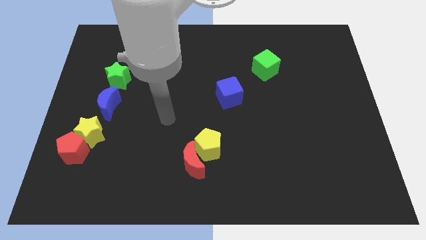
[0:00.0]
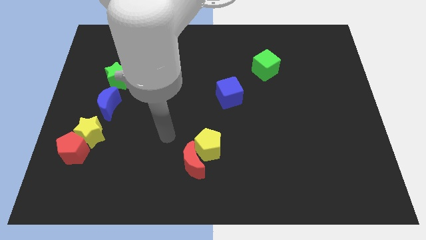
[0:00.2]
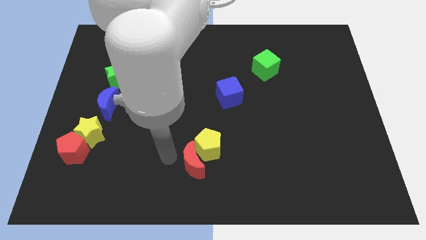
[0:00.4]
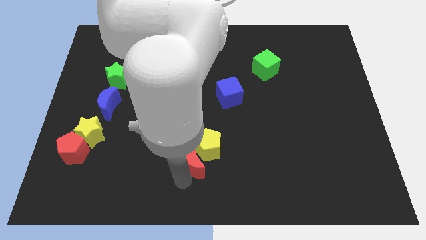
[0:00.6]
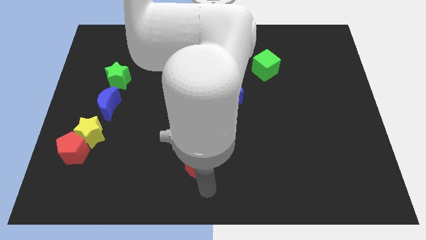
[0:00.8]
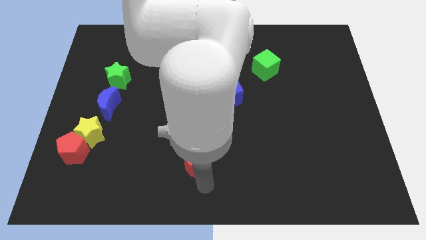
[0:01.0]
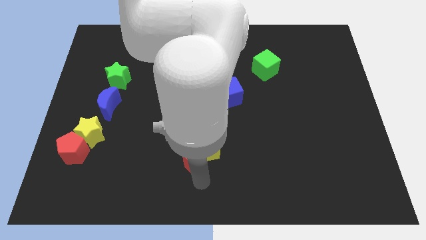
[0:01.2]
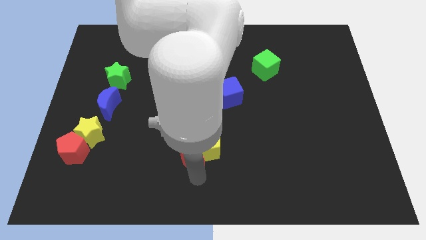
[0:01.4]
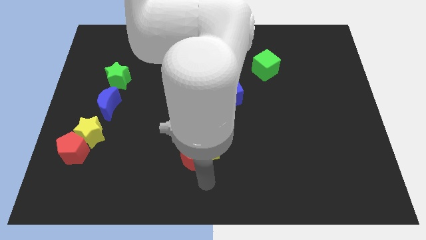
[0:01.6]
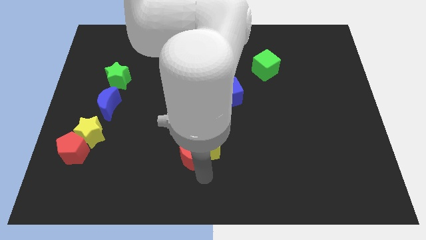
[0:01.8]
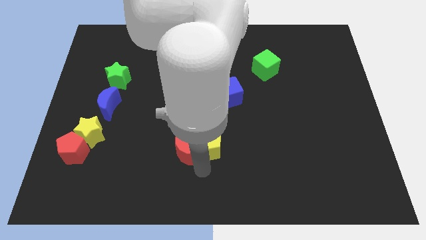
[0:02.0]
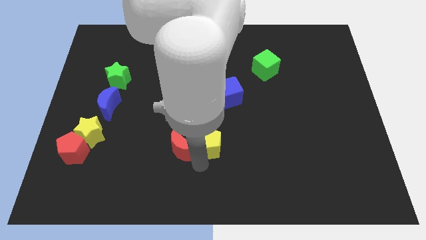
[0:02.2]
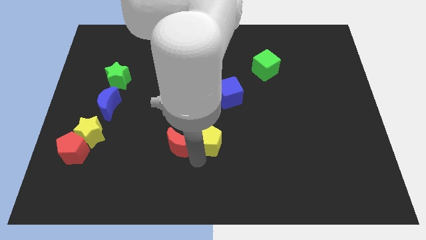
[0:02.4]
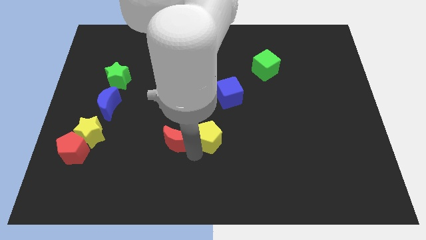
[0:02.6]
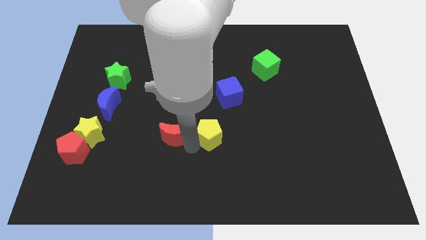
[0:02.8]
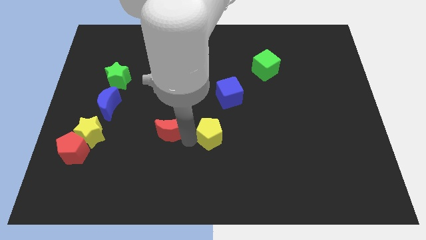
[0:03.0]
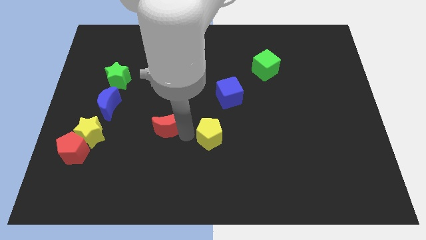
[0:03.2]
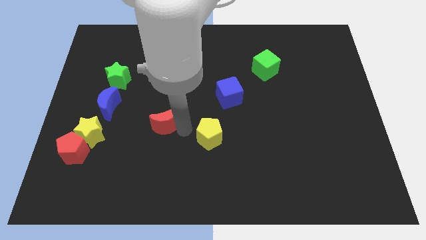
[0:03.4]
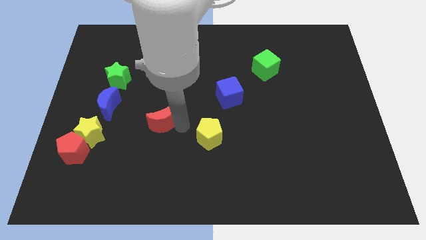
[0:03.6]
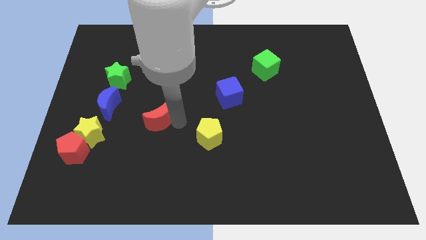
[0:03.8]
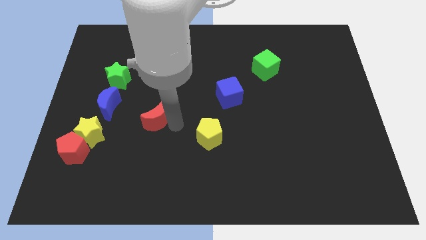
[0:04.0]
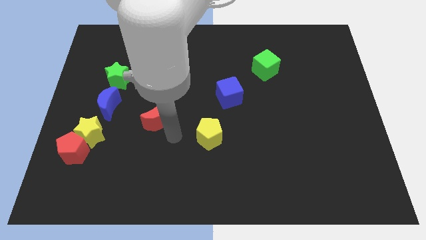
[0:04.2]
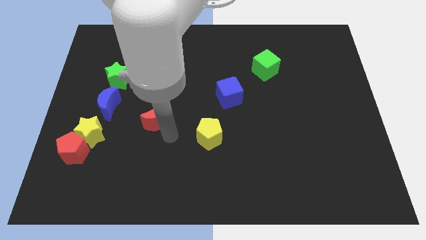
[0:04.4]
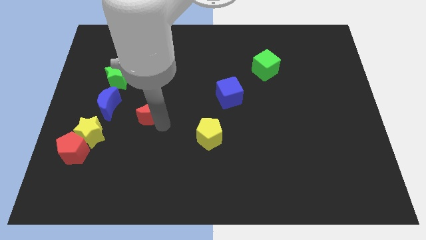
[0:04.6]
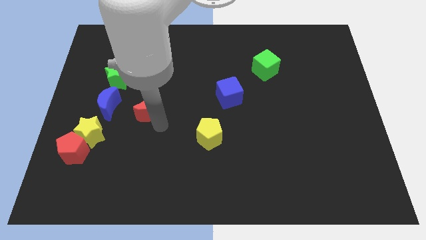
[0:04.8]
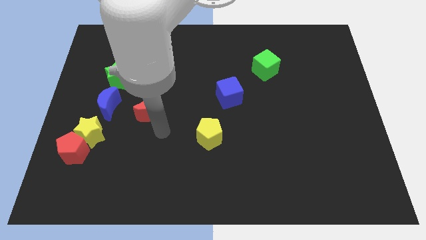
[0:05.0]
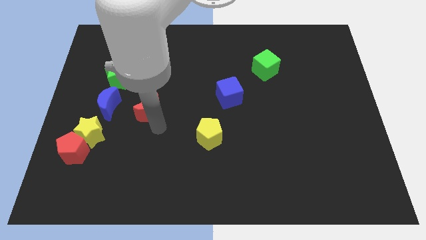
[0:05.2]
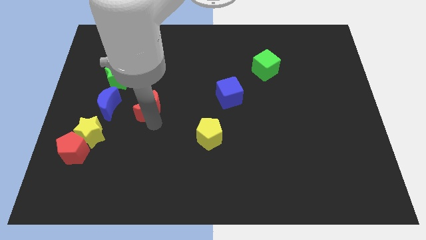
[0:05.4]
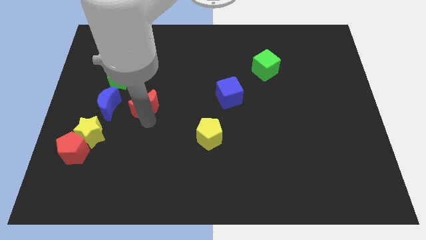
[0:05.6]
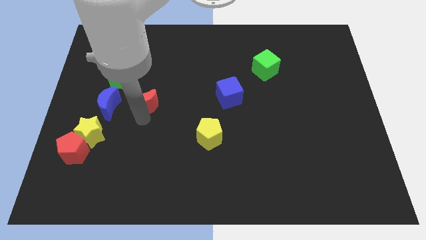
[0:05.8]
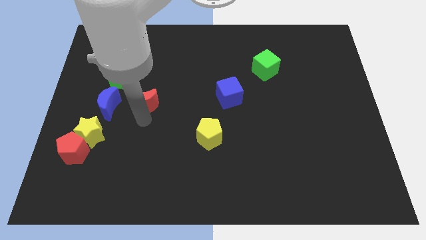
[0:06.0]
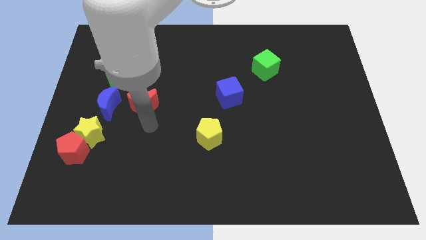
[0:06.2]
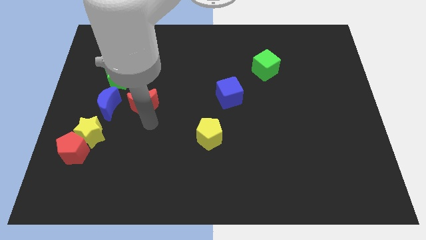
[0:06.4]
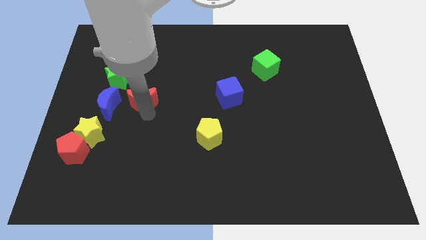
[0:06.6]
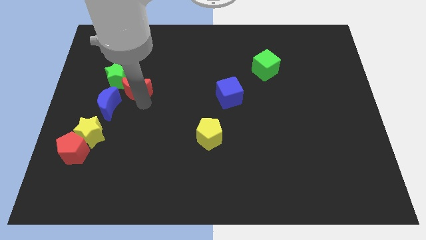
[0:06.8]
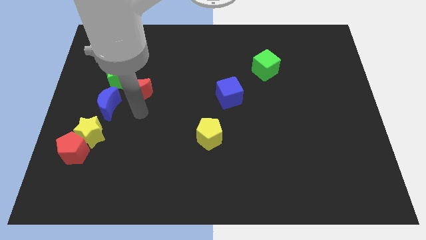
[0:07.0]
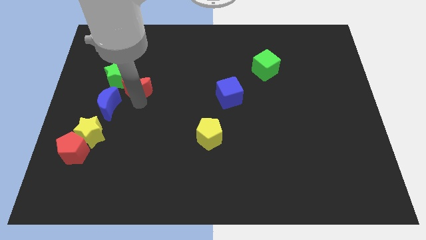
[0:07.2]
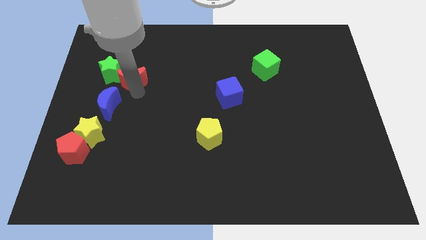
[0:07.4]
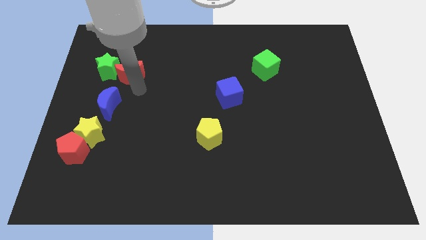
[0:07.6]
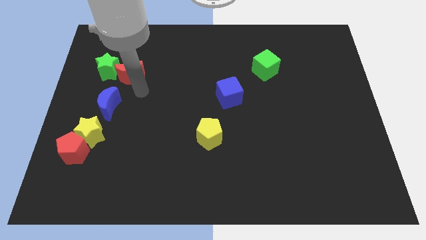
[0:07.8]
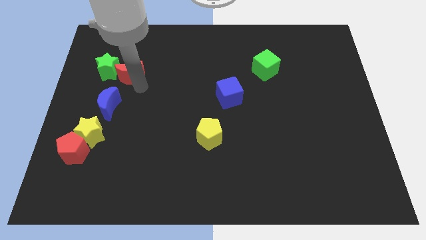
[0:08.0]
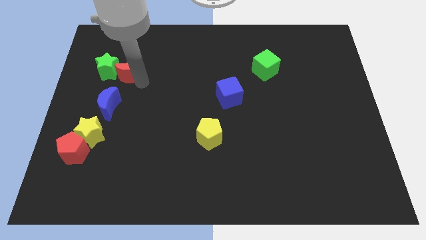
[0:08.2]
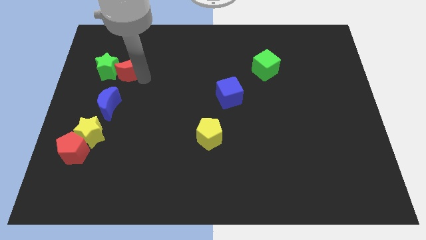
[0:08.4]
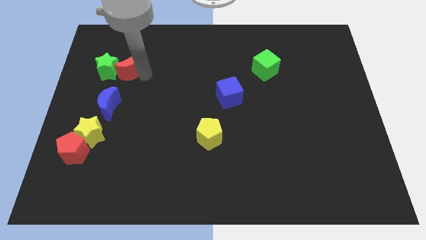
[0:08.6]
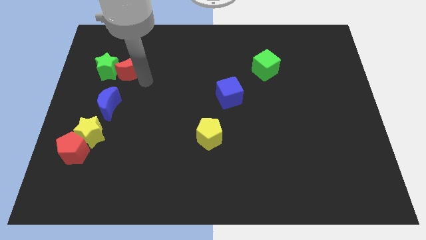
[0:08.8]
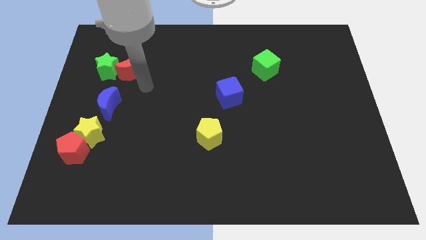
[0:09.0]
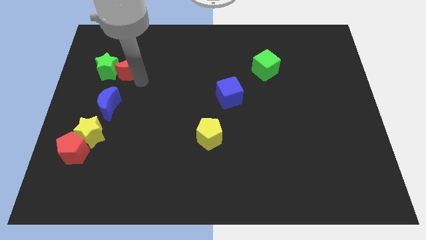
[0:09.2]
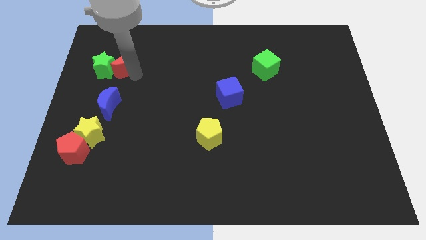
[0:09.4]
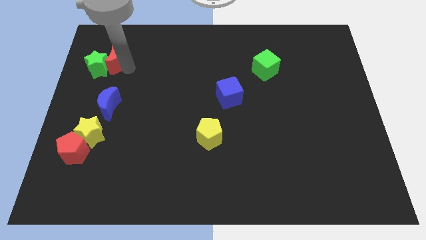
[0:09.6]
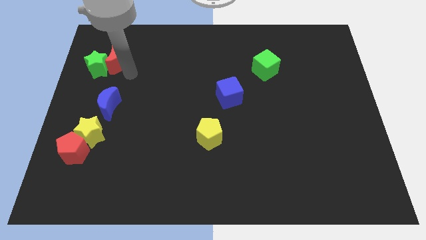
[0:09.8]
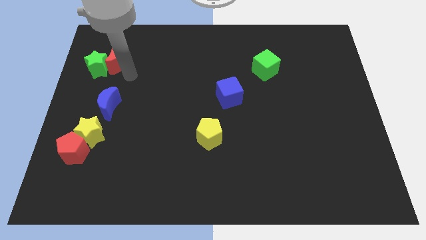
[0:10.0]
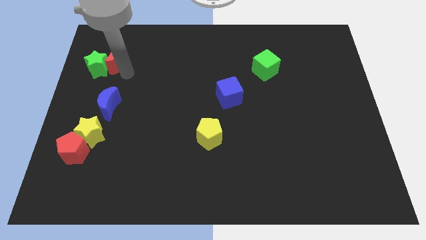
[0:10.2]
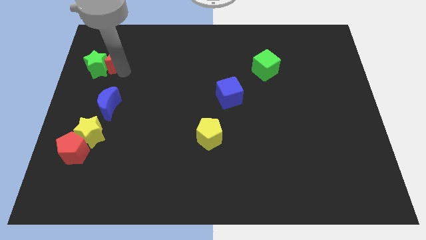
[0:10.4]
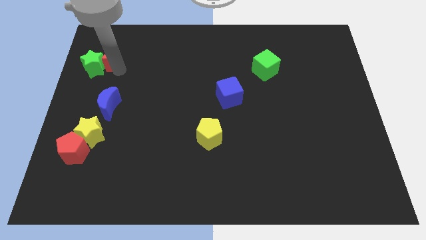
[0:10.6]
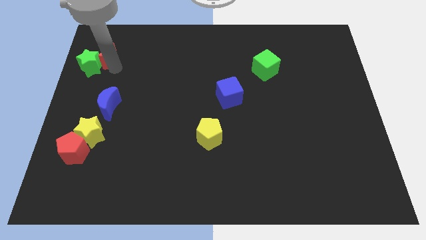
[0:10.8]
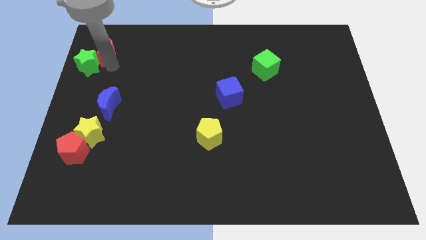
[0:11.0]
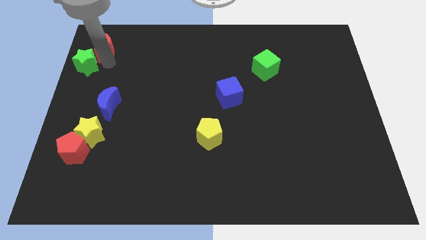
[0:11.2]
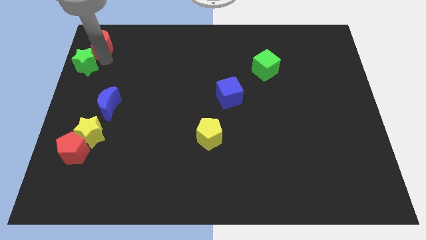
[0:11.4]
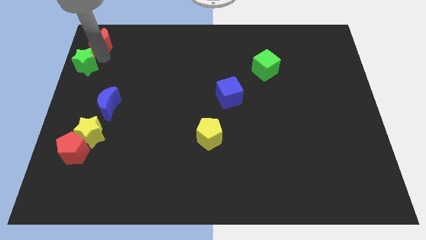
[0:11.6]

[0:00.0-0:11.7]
move the red moon to the upper left corner
